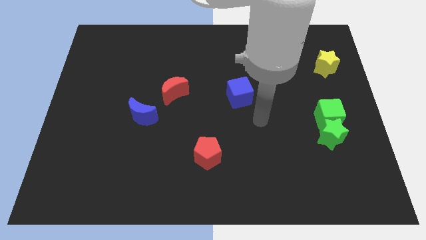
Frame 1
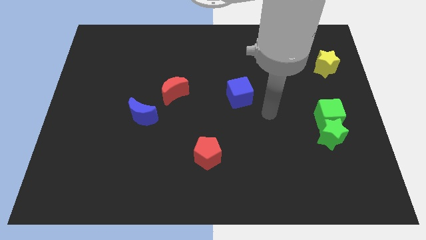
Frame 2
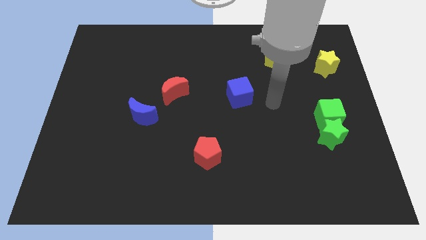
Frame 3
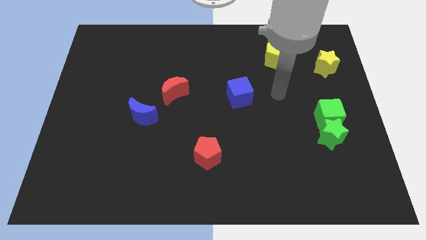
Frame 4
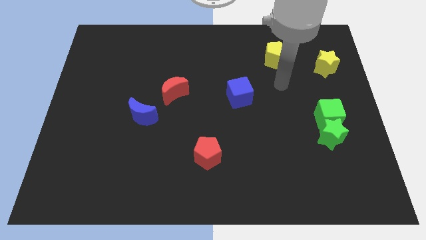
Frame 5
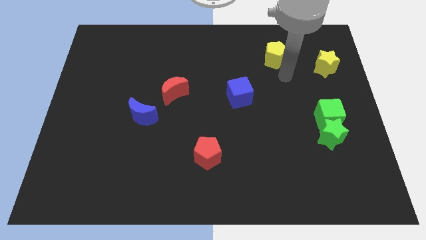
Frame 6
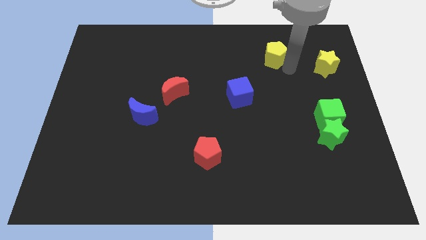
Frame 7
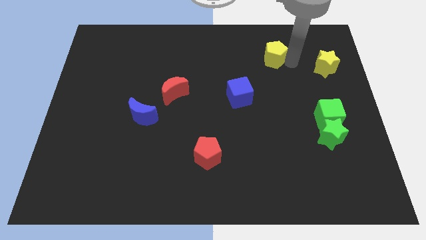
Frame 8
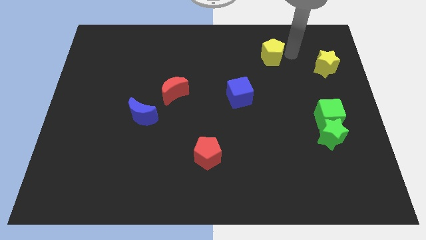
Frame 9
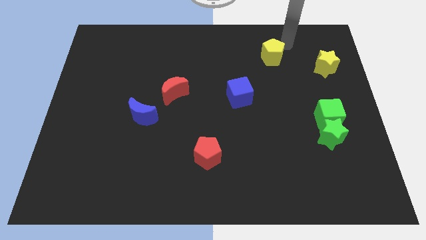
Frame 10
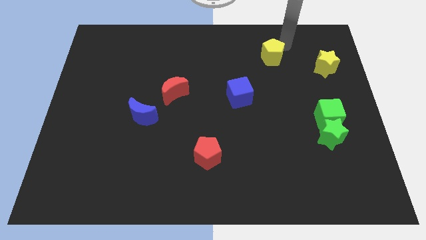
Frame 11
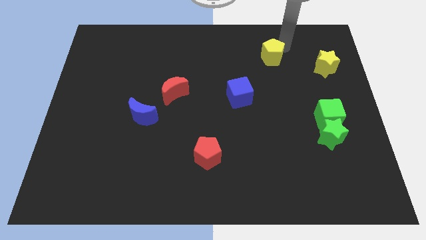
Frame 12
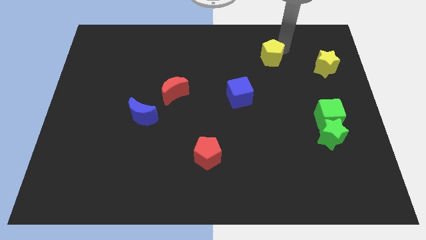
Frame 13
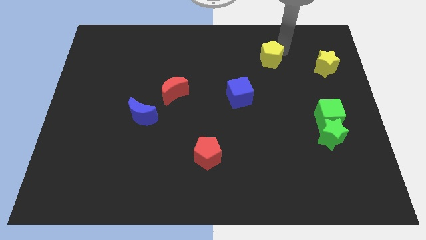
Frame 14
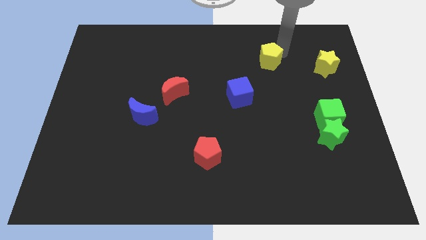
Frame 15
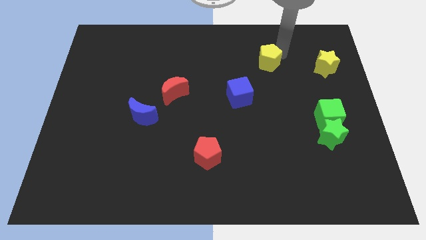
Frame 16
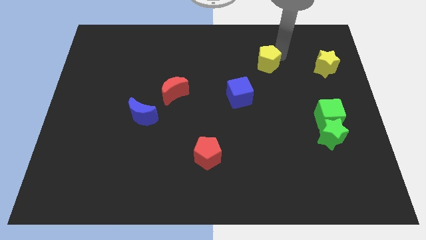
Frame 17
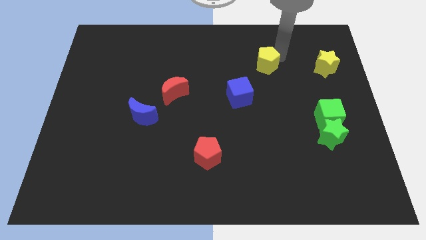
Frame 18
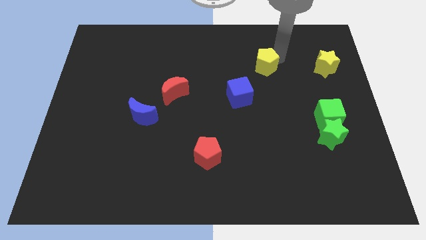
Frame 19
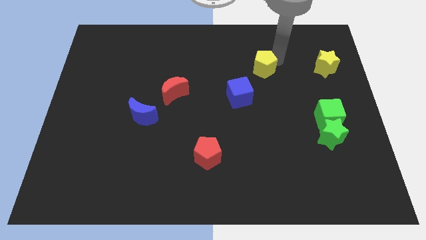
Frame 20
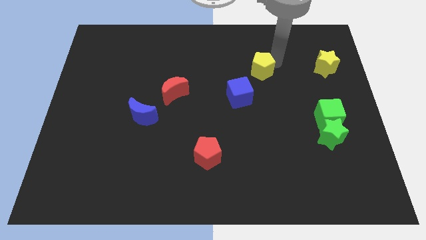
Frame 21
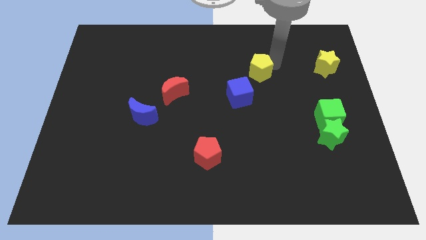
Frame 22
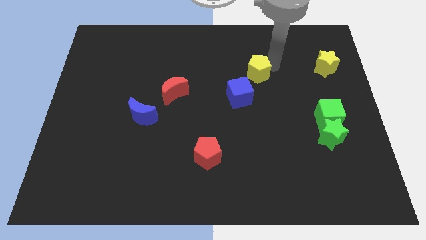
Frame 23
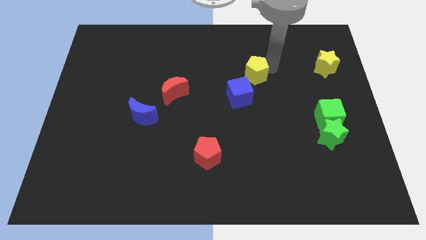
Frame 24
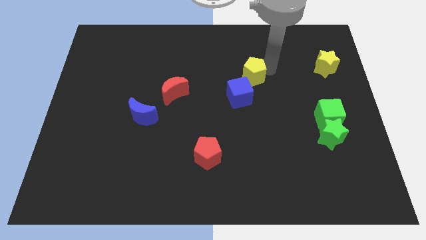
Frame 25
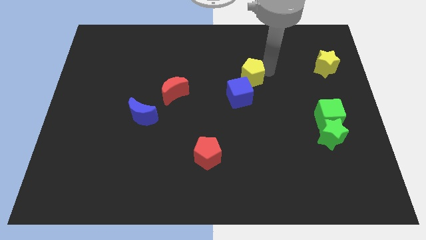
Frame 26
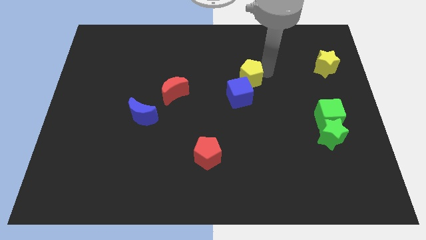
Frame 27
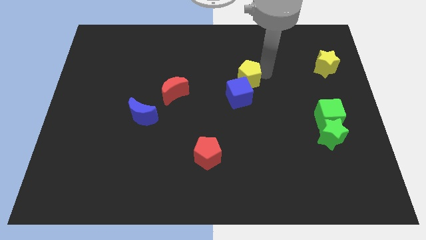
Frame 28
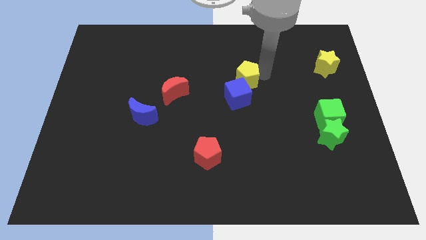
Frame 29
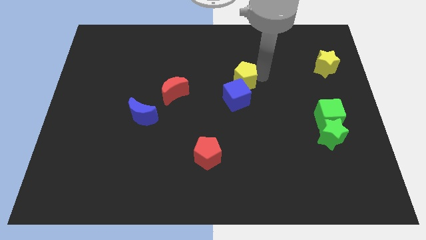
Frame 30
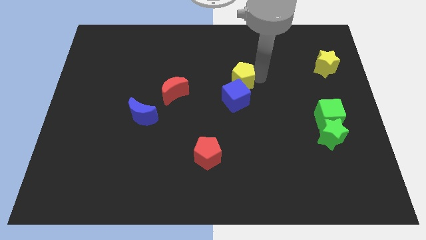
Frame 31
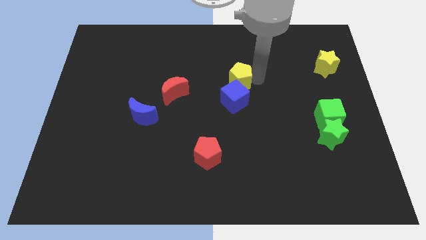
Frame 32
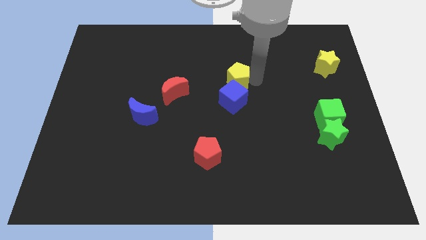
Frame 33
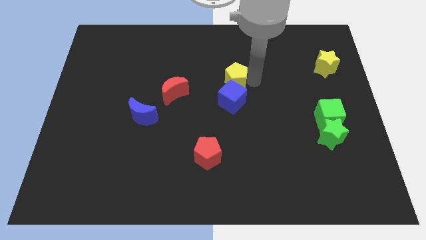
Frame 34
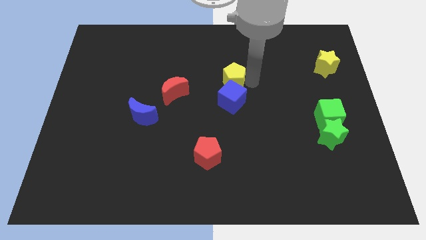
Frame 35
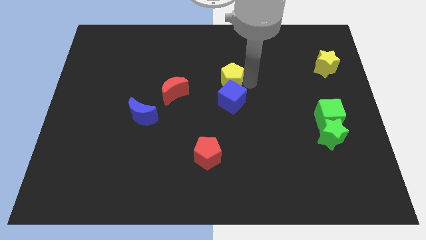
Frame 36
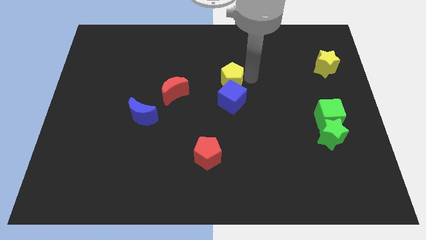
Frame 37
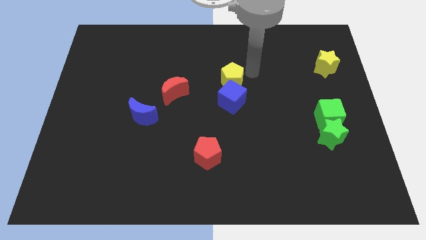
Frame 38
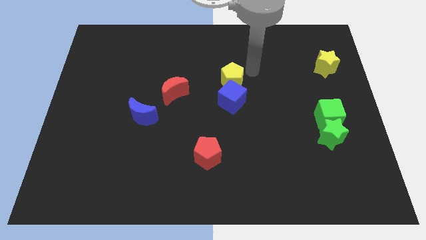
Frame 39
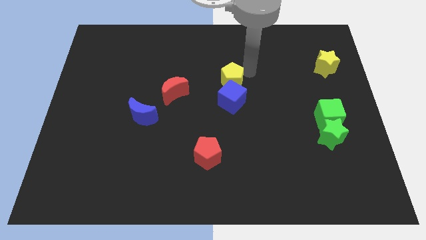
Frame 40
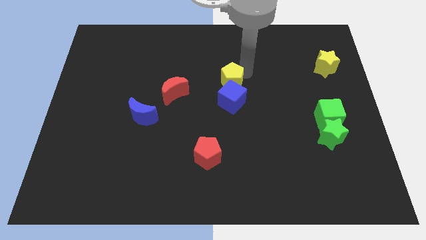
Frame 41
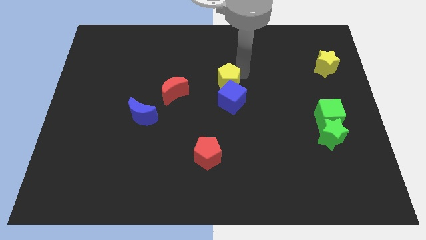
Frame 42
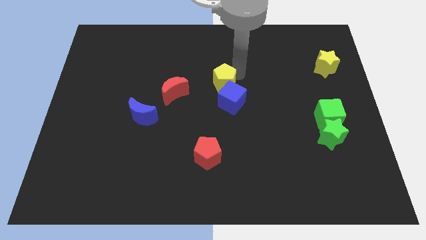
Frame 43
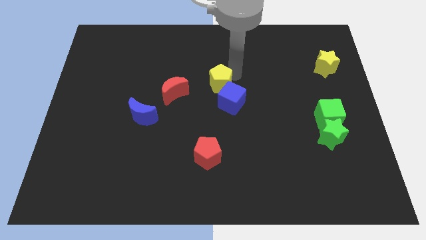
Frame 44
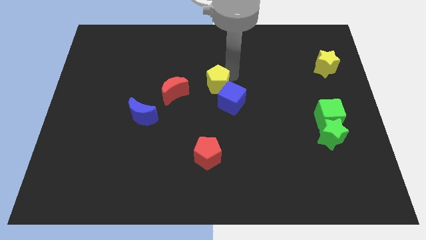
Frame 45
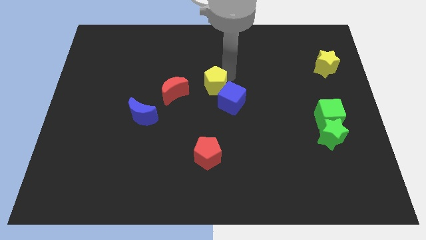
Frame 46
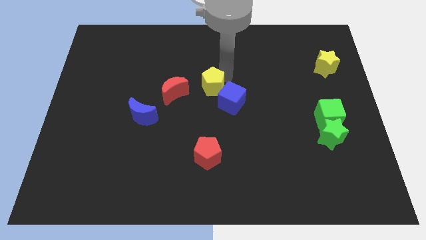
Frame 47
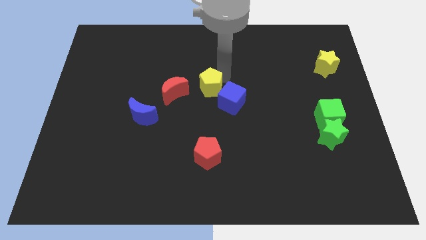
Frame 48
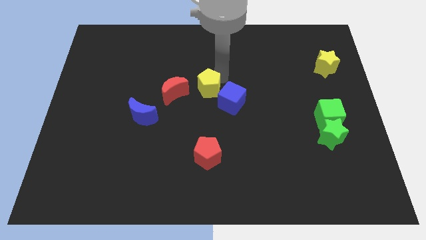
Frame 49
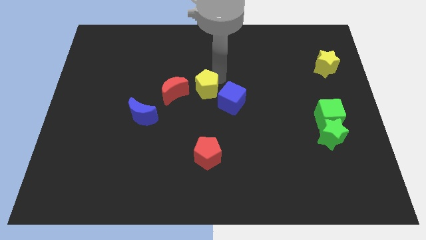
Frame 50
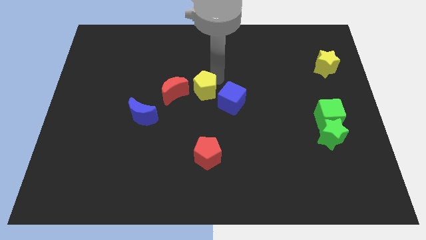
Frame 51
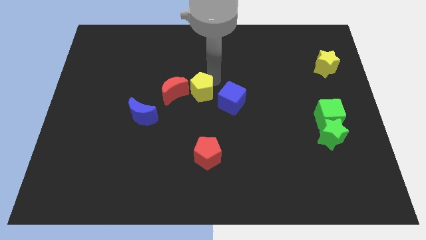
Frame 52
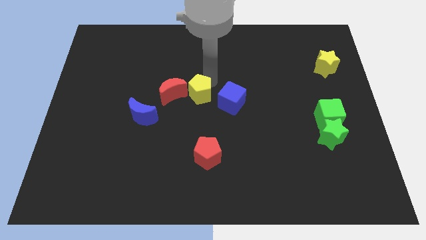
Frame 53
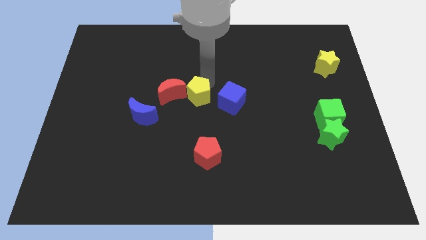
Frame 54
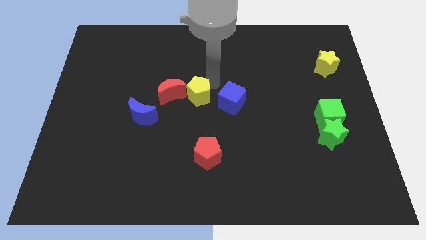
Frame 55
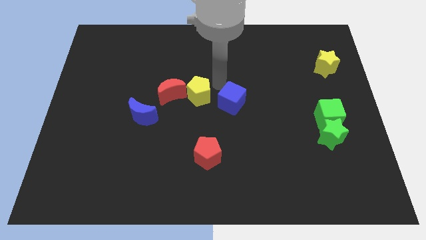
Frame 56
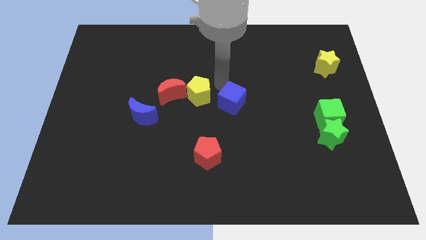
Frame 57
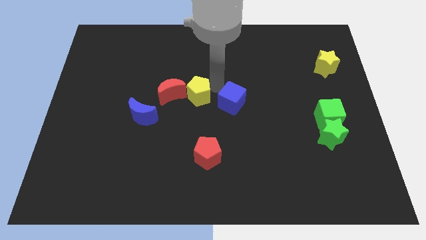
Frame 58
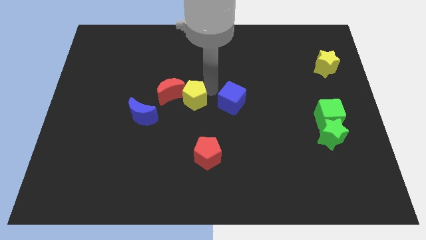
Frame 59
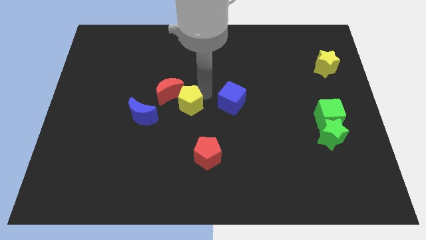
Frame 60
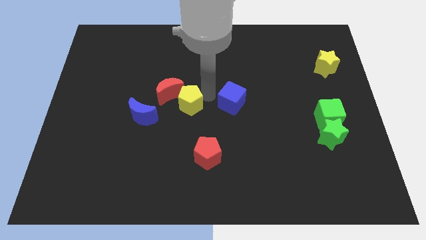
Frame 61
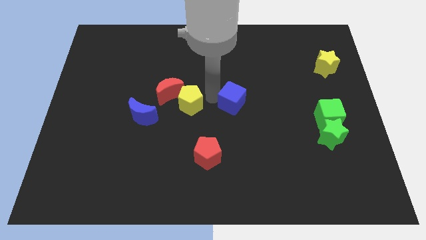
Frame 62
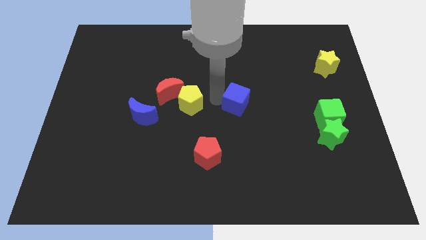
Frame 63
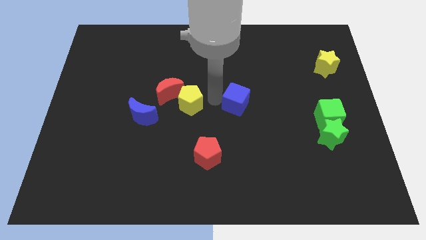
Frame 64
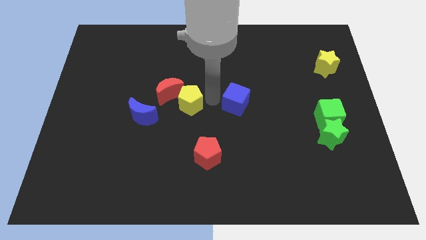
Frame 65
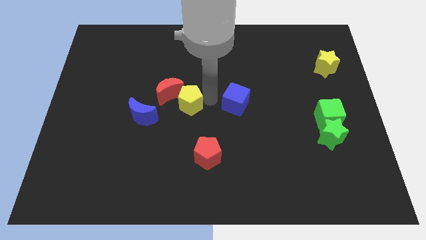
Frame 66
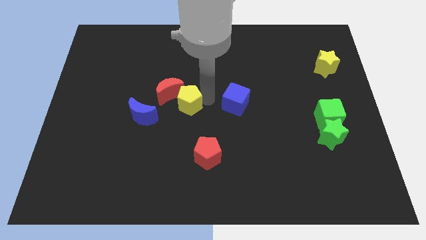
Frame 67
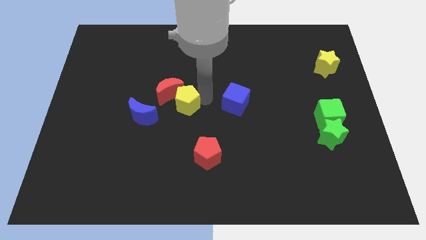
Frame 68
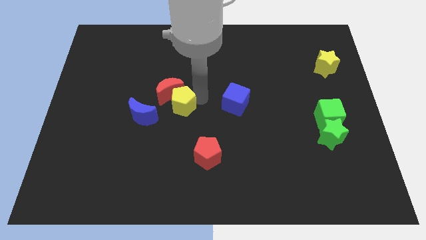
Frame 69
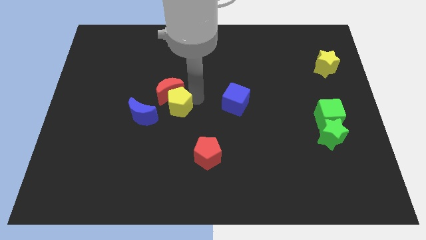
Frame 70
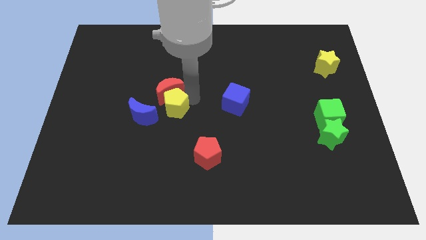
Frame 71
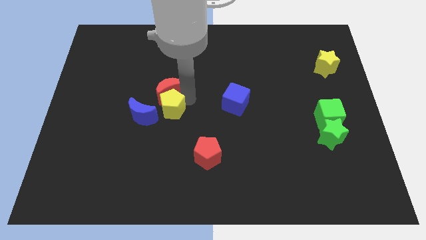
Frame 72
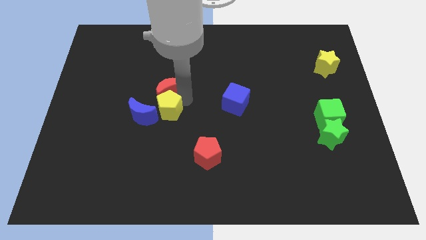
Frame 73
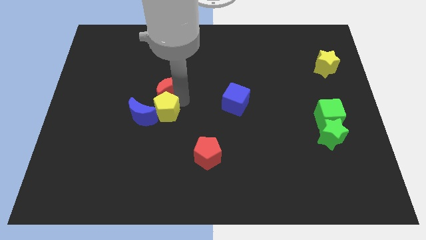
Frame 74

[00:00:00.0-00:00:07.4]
slide the yellow pentagon next to the blue moon

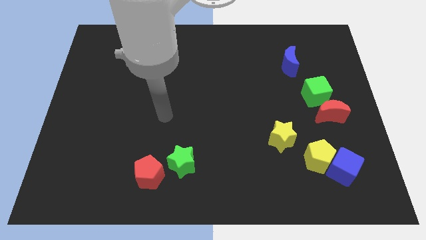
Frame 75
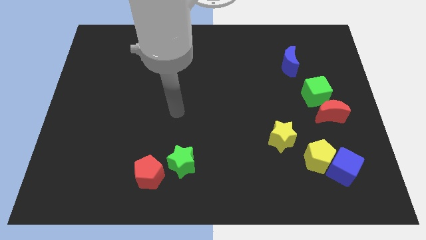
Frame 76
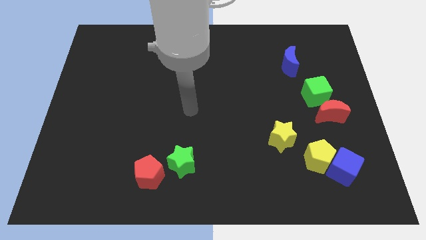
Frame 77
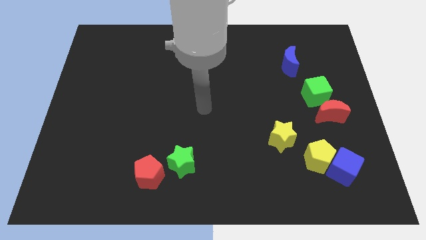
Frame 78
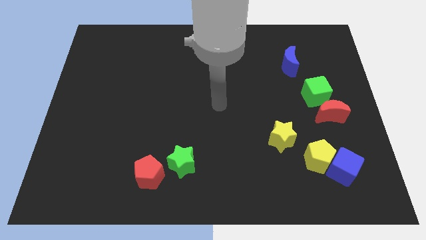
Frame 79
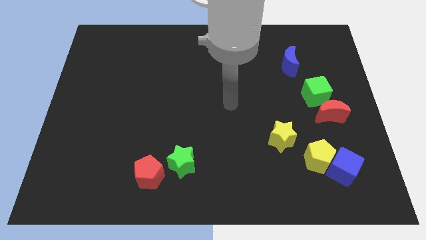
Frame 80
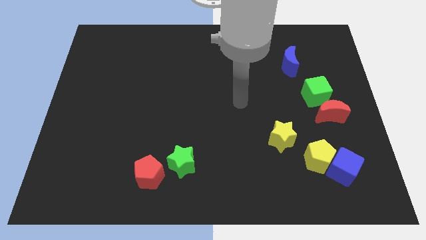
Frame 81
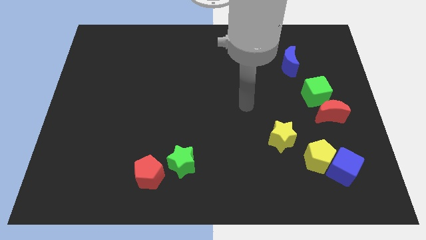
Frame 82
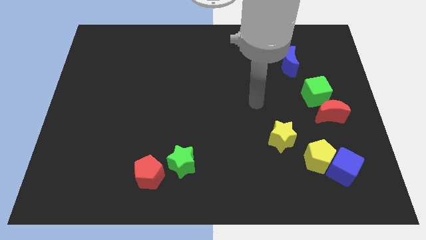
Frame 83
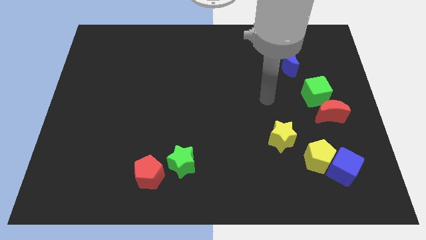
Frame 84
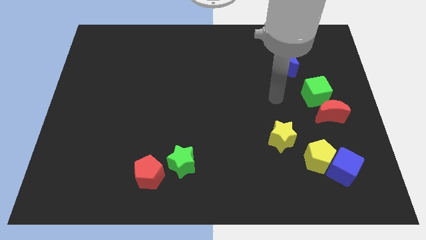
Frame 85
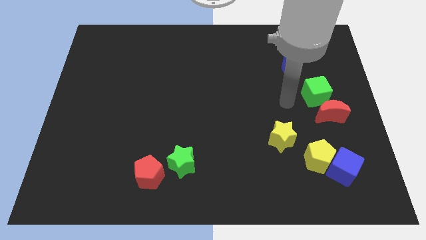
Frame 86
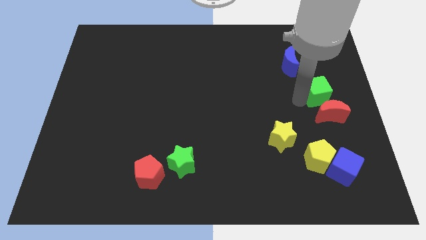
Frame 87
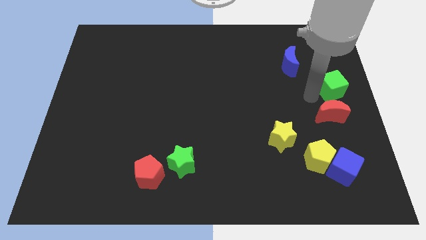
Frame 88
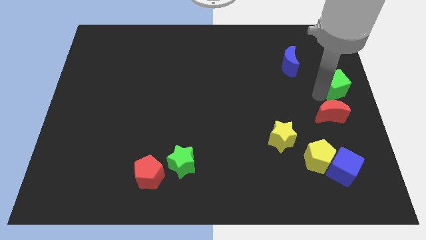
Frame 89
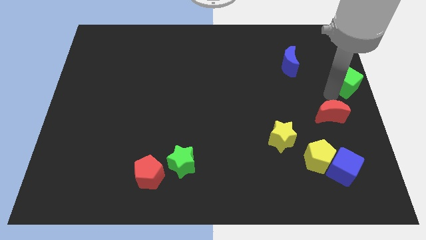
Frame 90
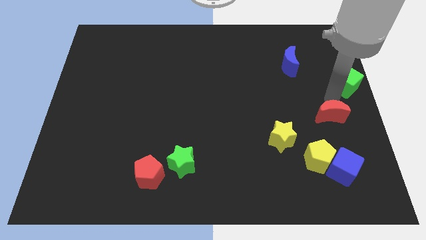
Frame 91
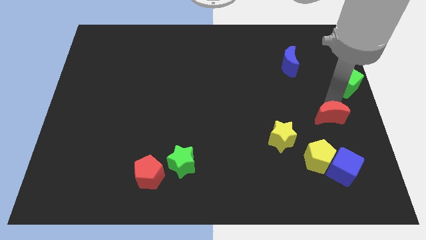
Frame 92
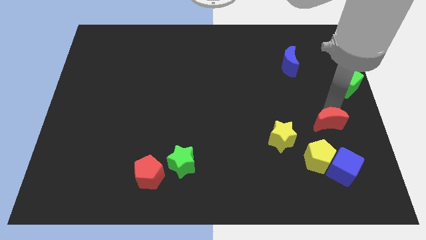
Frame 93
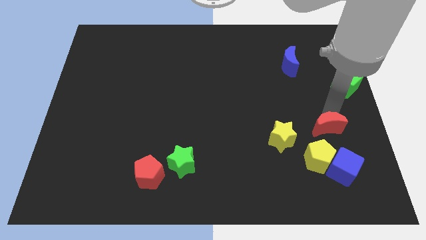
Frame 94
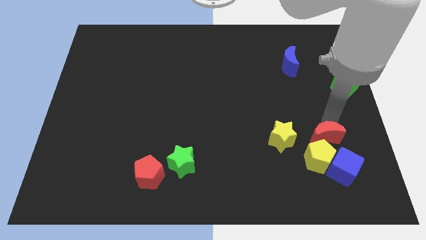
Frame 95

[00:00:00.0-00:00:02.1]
put the red moon close to the yellow pentagon
